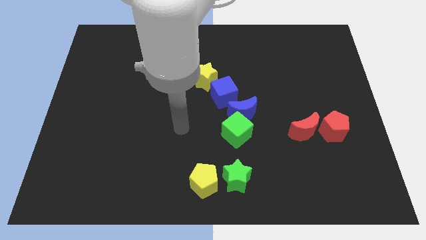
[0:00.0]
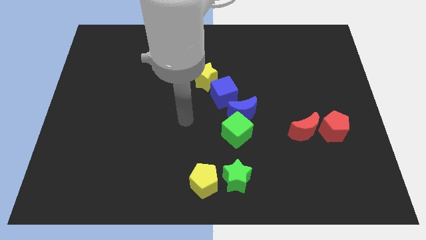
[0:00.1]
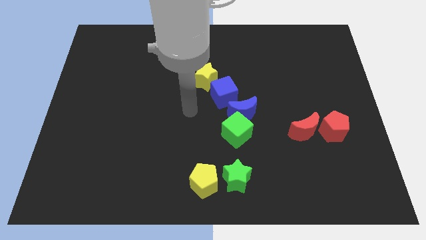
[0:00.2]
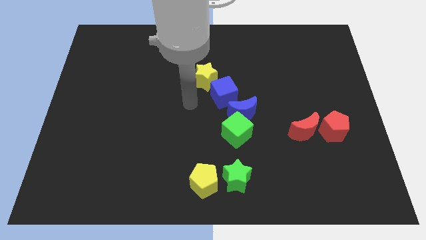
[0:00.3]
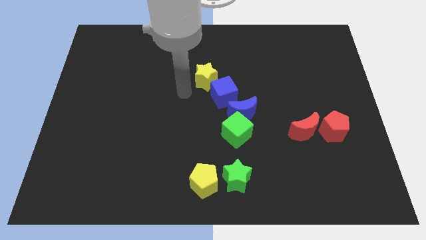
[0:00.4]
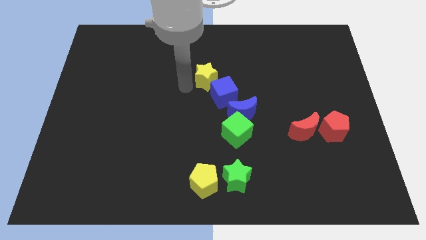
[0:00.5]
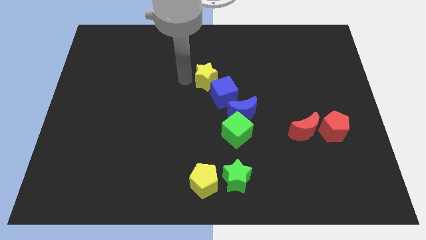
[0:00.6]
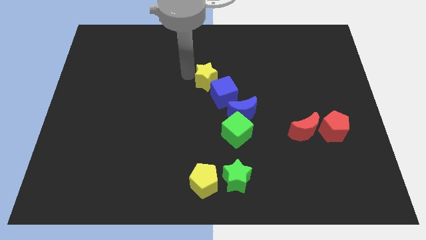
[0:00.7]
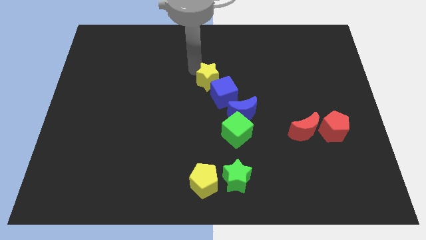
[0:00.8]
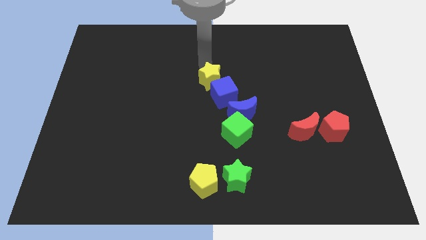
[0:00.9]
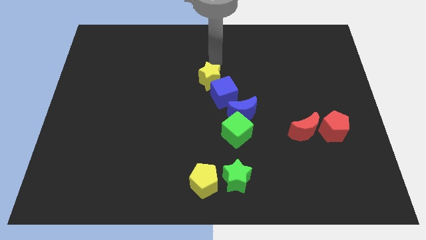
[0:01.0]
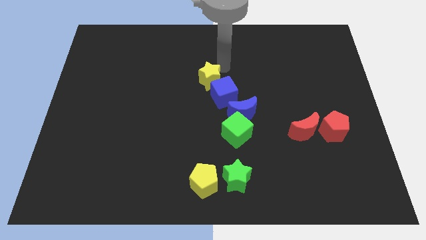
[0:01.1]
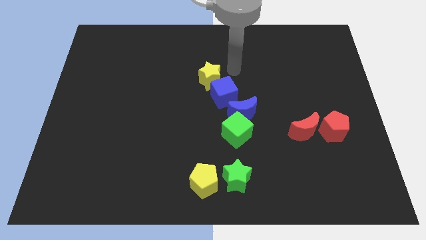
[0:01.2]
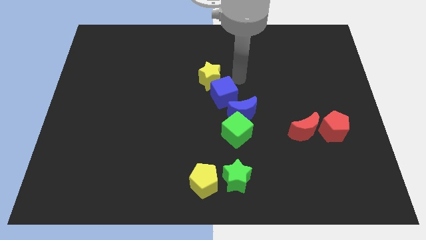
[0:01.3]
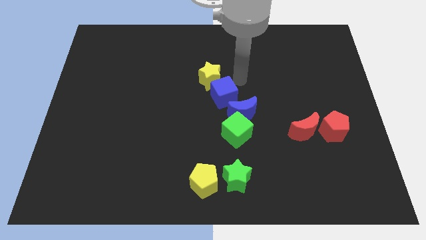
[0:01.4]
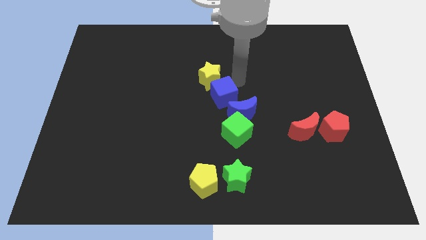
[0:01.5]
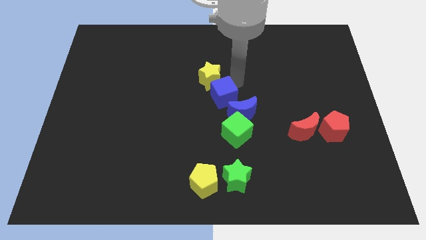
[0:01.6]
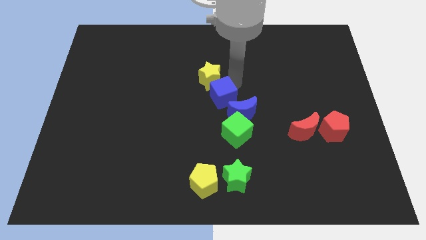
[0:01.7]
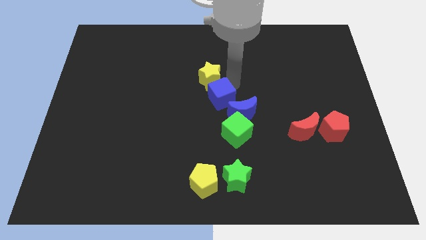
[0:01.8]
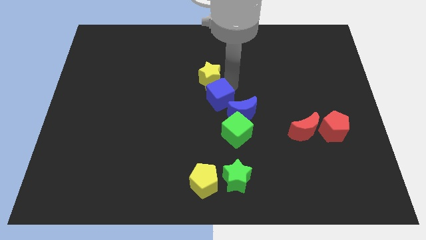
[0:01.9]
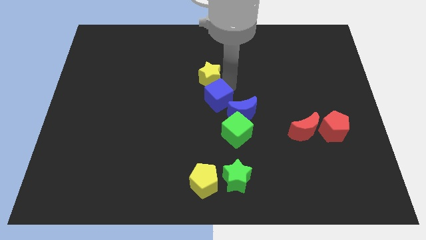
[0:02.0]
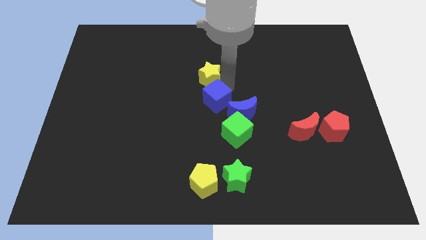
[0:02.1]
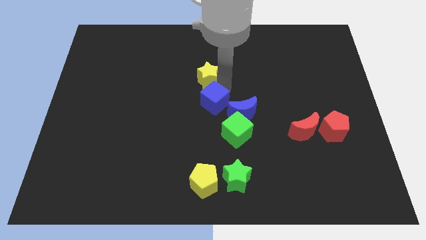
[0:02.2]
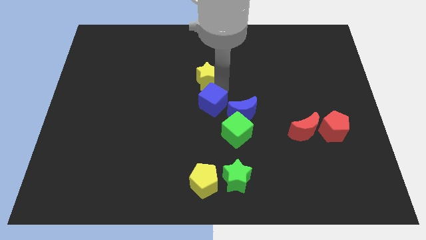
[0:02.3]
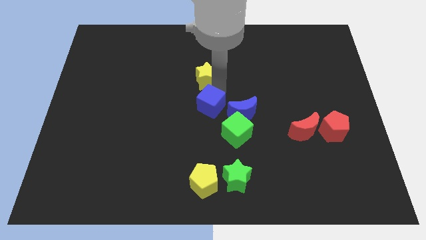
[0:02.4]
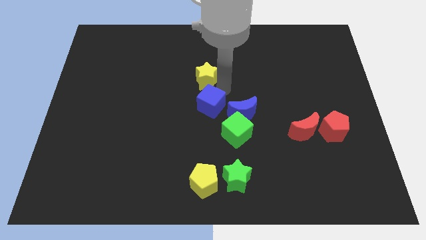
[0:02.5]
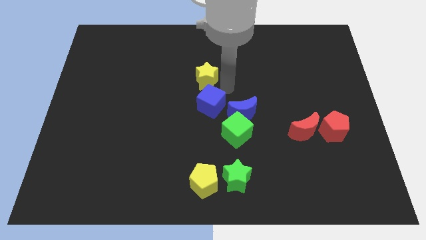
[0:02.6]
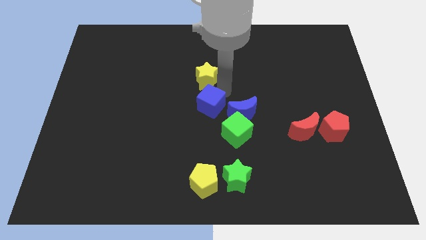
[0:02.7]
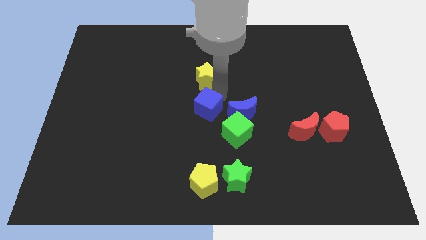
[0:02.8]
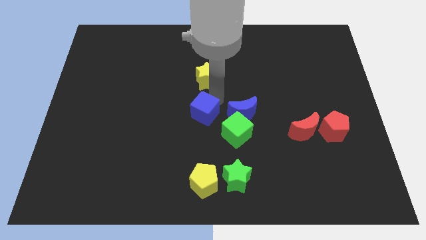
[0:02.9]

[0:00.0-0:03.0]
slide the blue cube somewhat down and then left

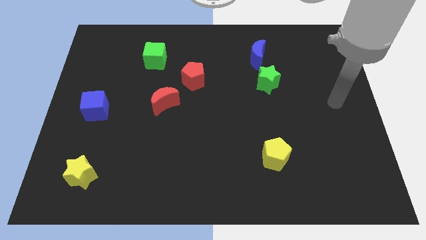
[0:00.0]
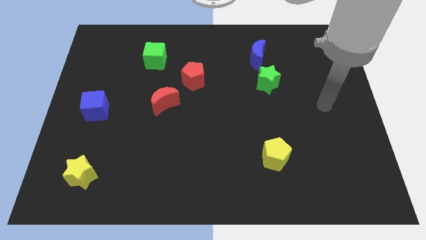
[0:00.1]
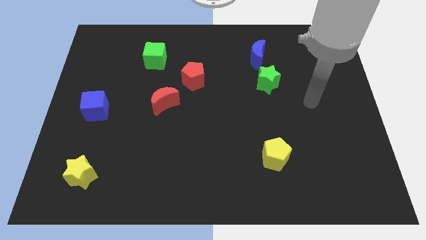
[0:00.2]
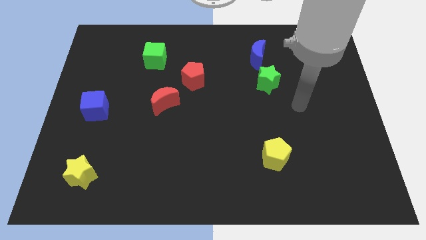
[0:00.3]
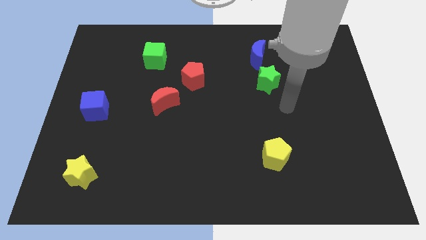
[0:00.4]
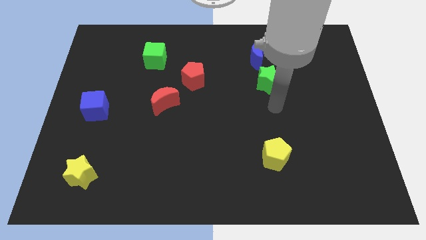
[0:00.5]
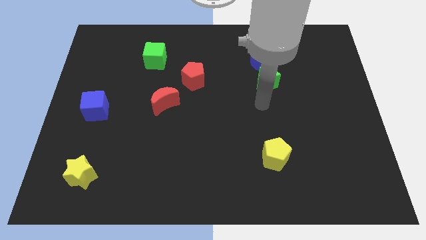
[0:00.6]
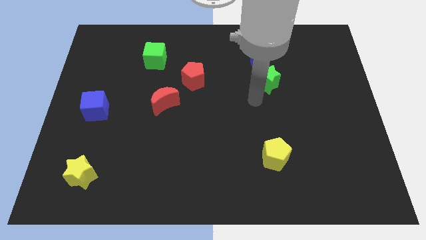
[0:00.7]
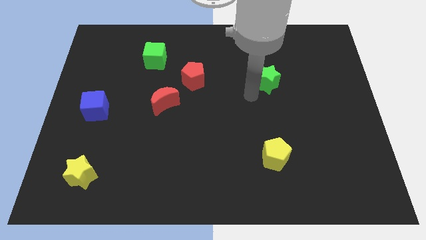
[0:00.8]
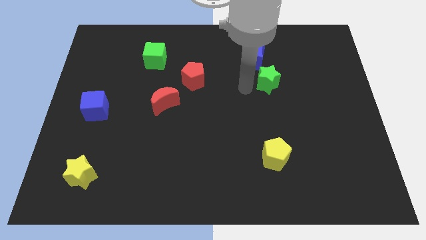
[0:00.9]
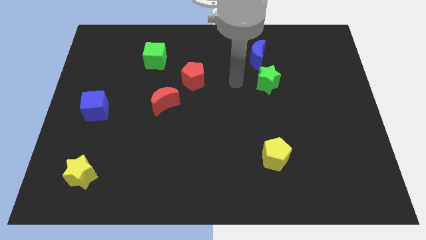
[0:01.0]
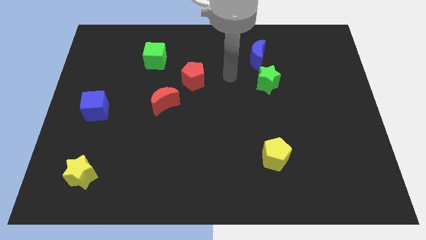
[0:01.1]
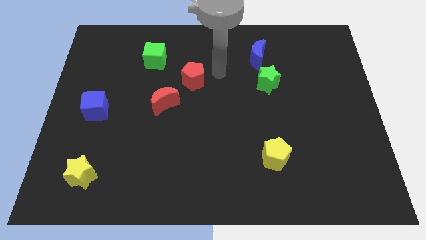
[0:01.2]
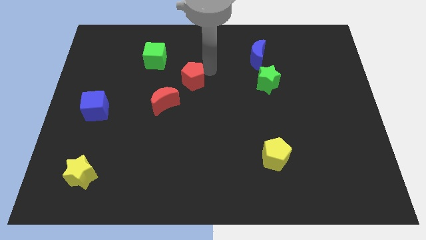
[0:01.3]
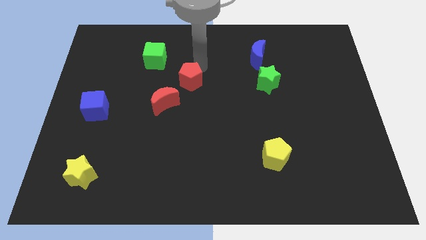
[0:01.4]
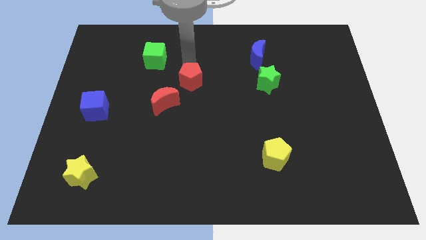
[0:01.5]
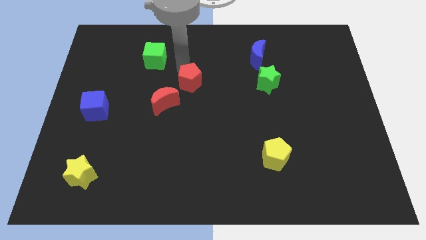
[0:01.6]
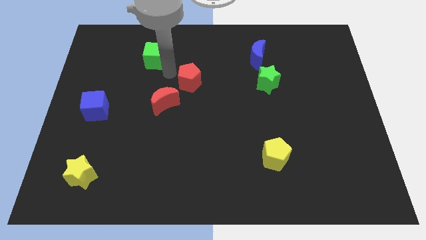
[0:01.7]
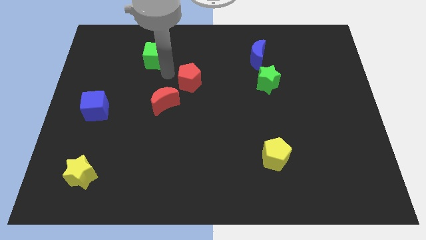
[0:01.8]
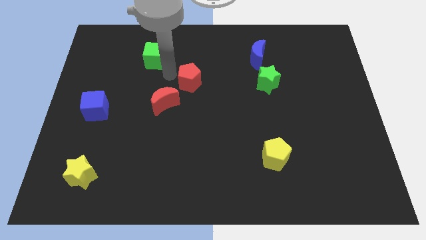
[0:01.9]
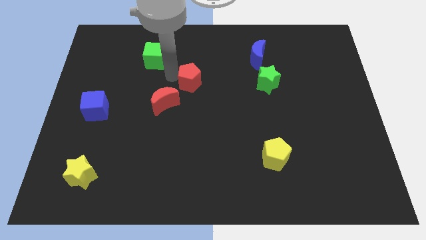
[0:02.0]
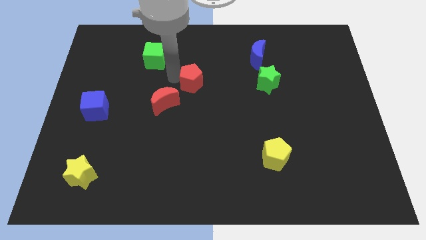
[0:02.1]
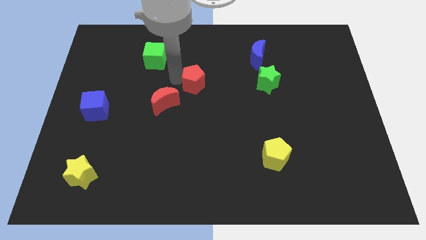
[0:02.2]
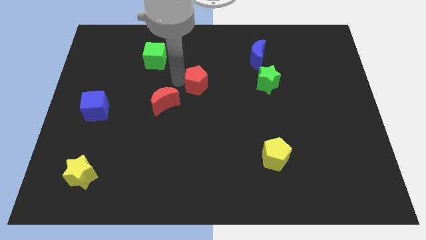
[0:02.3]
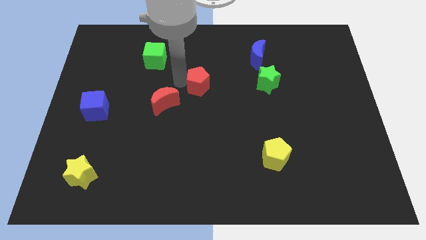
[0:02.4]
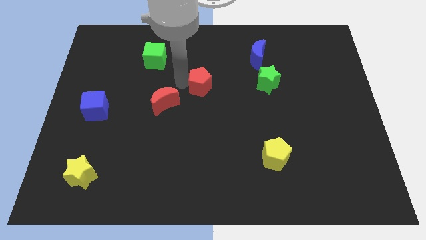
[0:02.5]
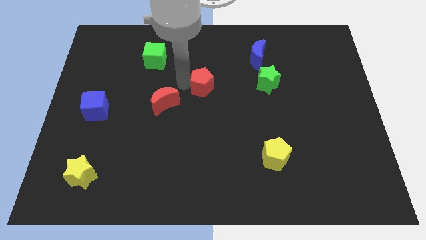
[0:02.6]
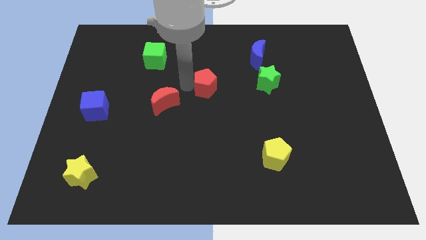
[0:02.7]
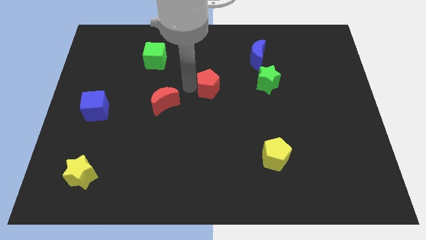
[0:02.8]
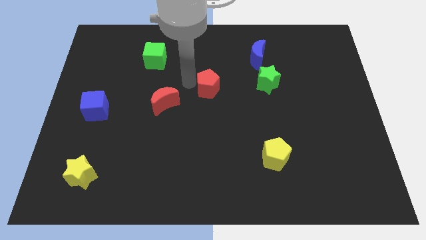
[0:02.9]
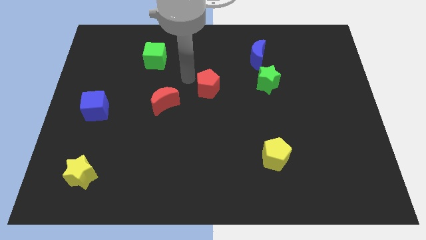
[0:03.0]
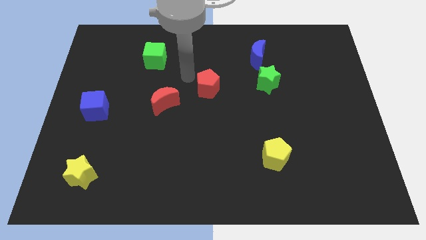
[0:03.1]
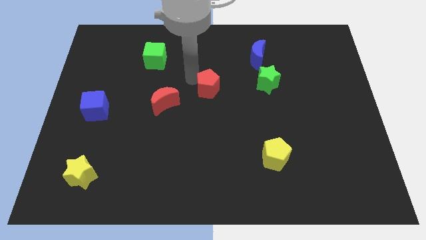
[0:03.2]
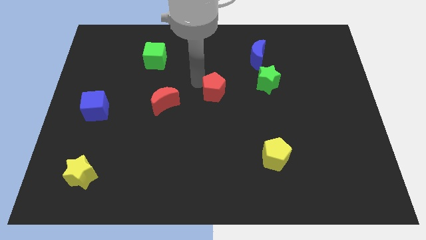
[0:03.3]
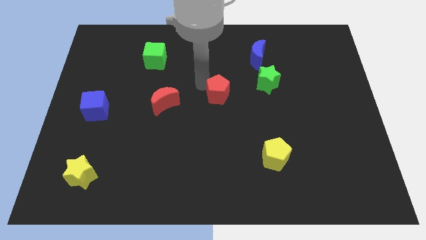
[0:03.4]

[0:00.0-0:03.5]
slide the red pentagon somewhat downwards and right diagonally

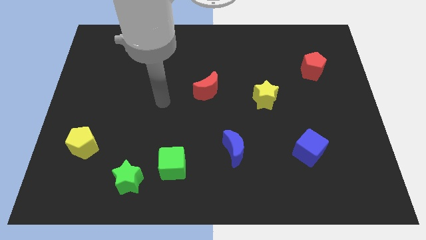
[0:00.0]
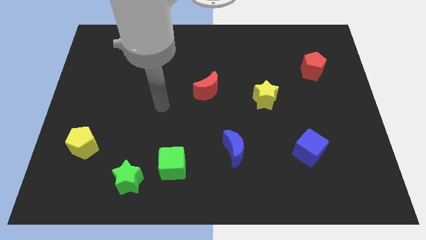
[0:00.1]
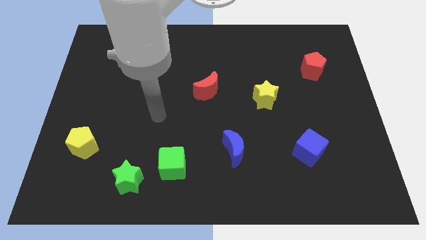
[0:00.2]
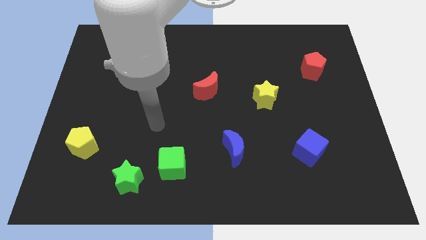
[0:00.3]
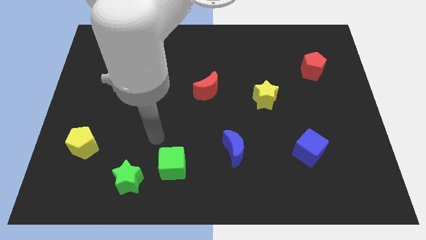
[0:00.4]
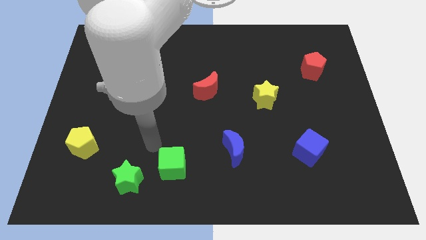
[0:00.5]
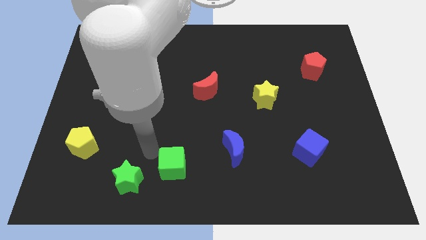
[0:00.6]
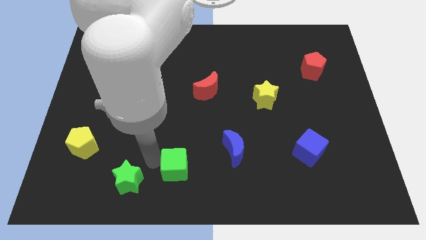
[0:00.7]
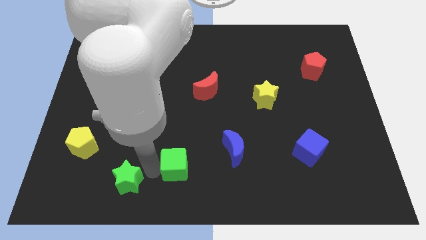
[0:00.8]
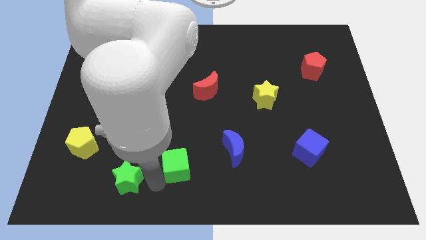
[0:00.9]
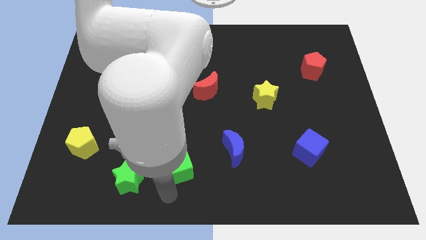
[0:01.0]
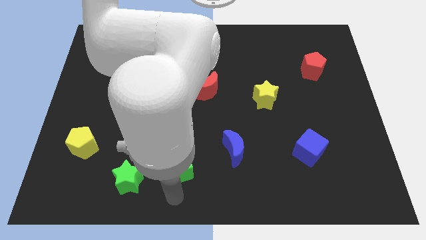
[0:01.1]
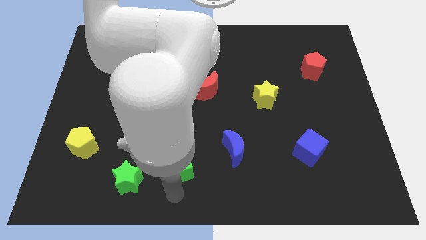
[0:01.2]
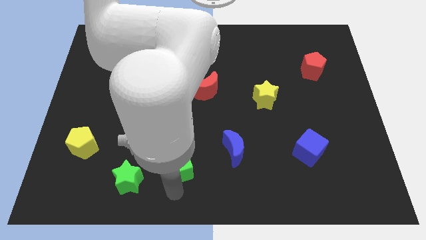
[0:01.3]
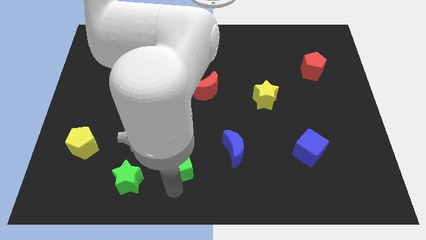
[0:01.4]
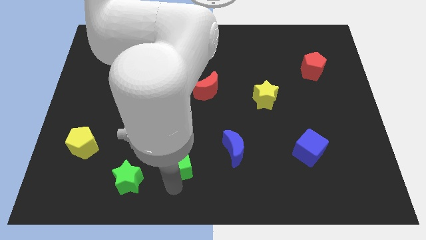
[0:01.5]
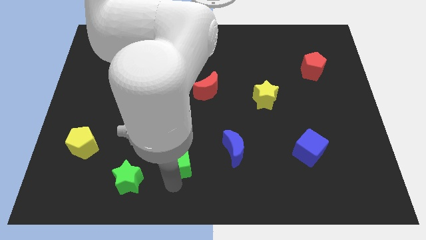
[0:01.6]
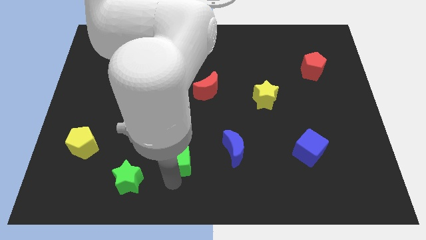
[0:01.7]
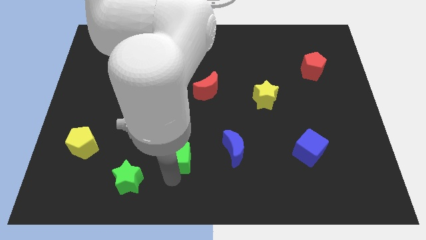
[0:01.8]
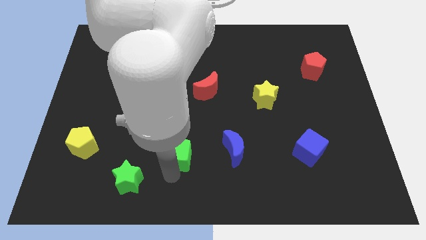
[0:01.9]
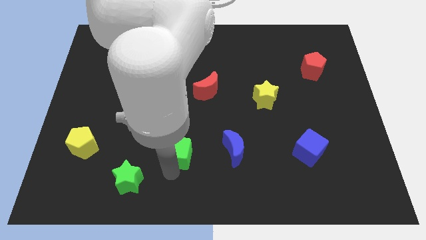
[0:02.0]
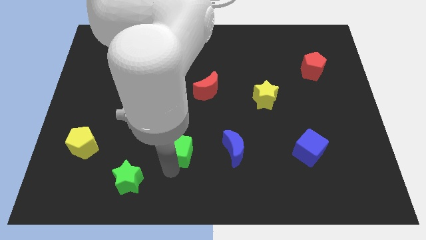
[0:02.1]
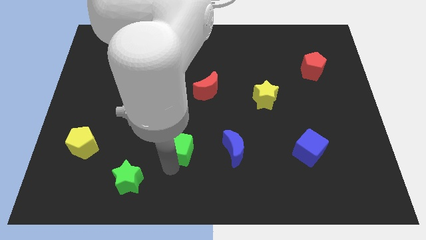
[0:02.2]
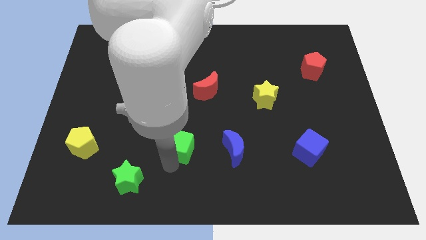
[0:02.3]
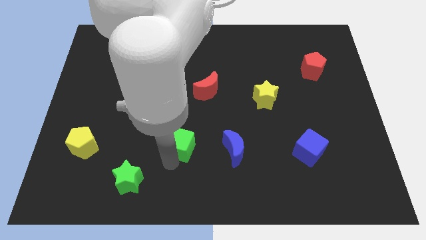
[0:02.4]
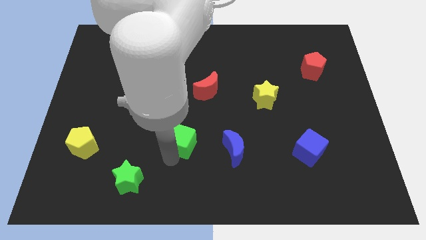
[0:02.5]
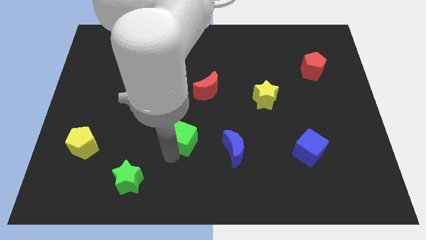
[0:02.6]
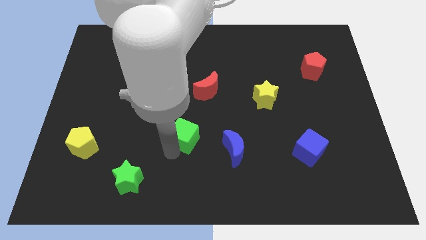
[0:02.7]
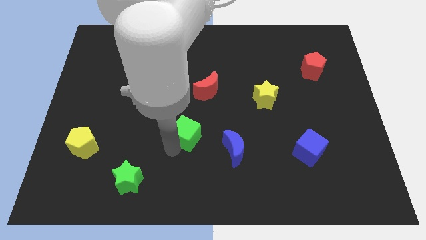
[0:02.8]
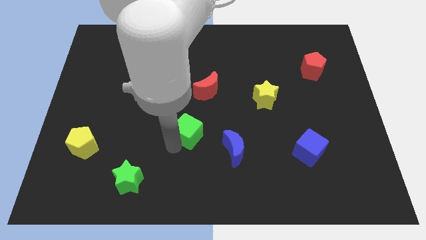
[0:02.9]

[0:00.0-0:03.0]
push the green cube up and right a little bit
